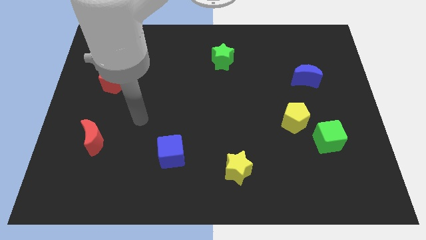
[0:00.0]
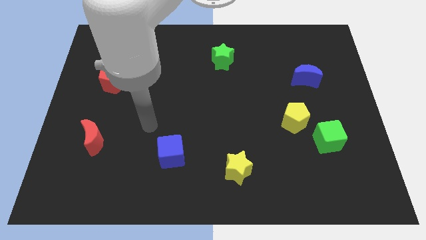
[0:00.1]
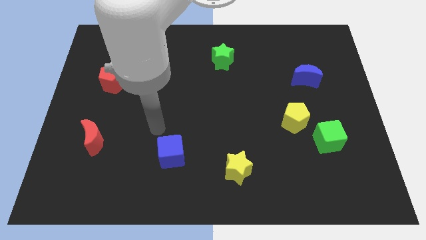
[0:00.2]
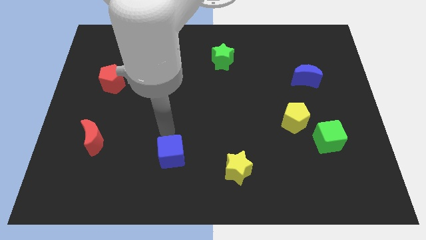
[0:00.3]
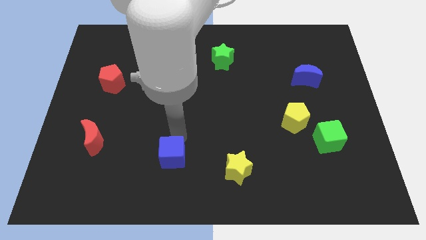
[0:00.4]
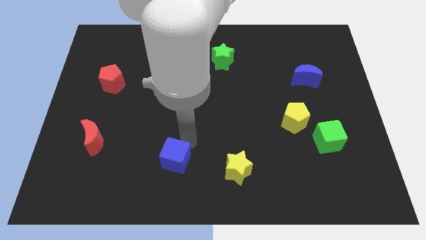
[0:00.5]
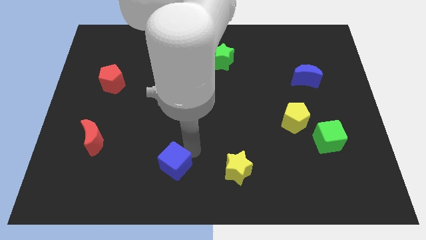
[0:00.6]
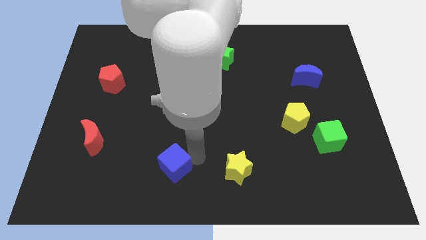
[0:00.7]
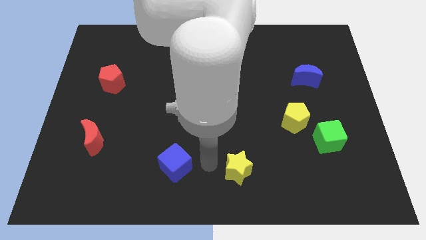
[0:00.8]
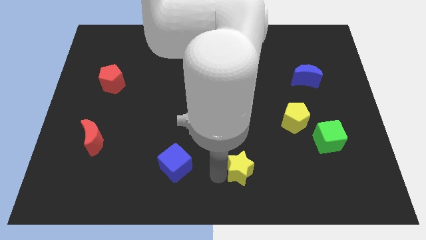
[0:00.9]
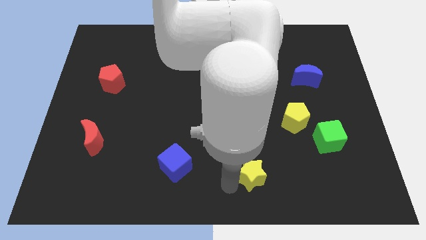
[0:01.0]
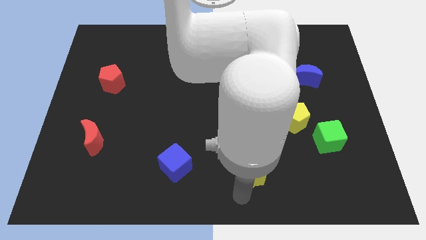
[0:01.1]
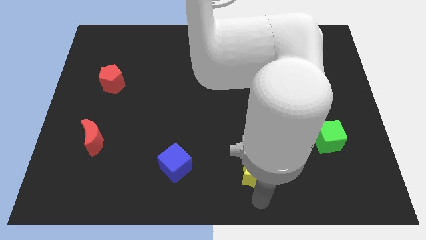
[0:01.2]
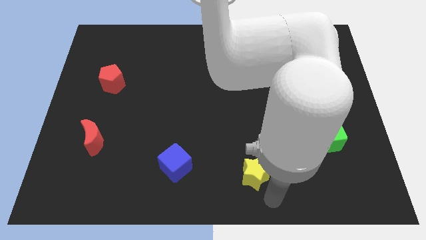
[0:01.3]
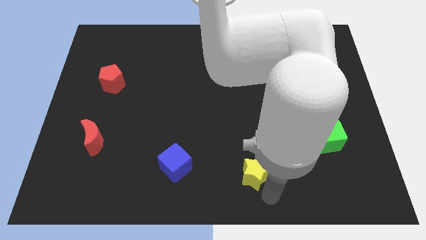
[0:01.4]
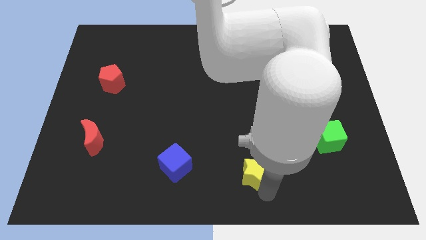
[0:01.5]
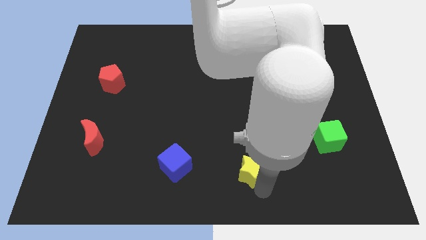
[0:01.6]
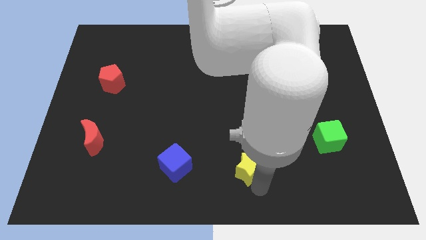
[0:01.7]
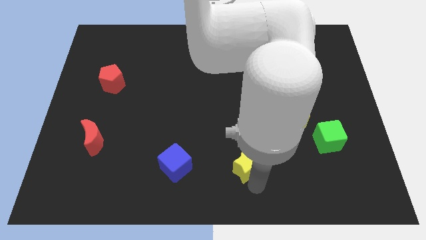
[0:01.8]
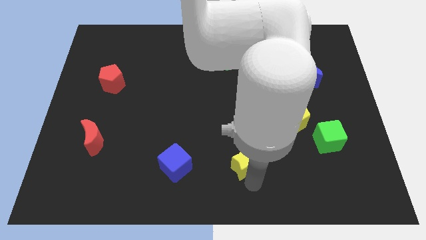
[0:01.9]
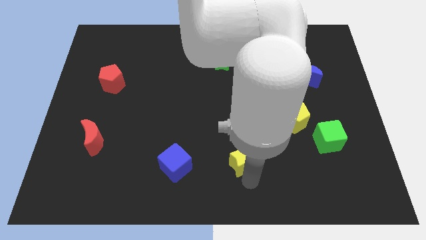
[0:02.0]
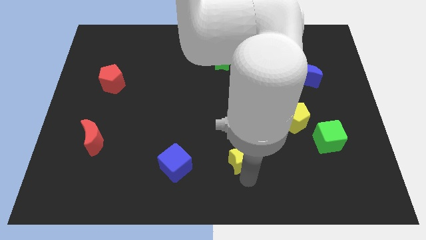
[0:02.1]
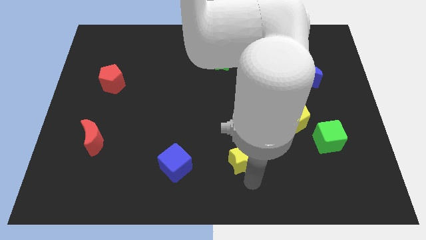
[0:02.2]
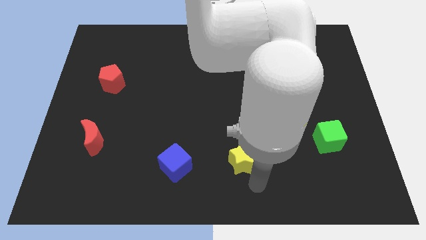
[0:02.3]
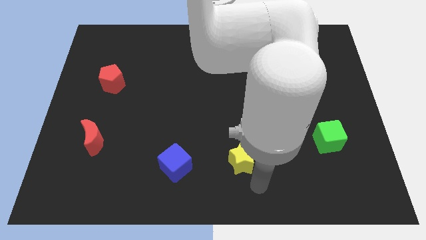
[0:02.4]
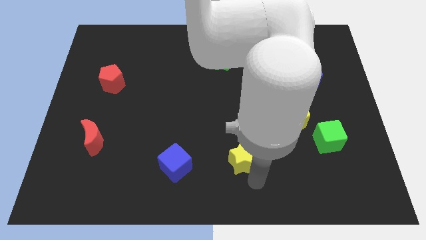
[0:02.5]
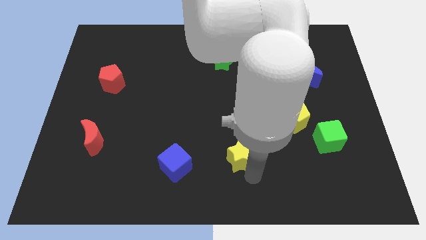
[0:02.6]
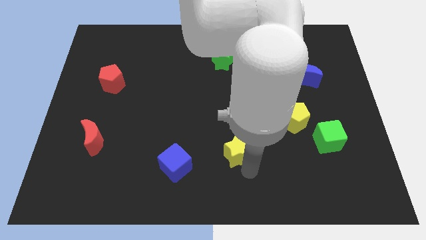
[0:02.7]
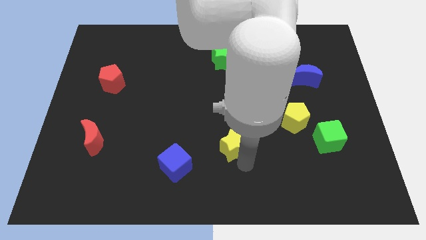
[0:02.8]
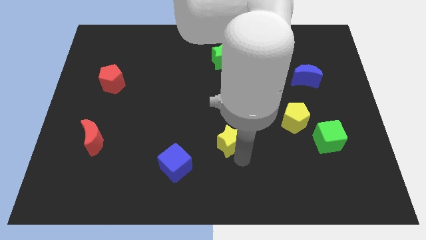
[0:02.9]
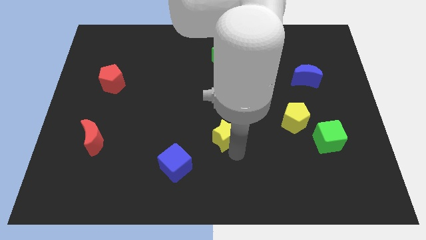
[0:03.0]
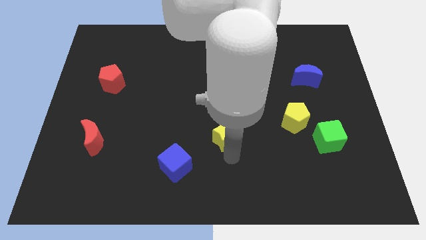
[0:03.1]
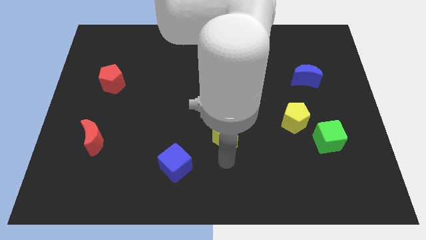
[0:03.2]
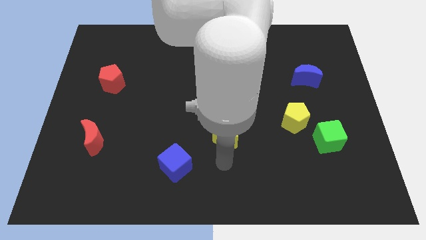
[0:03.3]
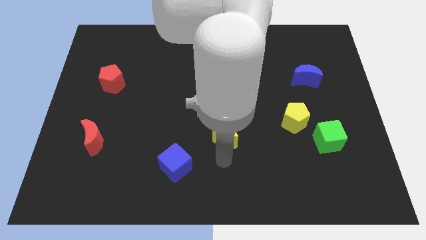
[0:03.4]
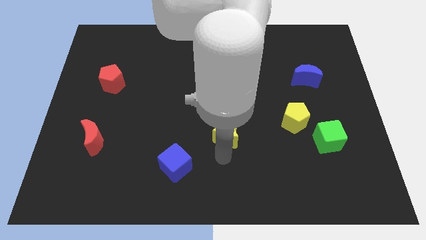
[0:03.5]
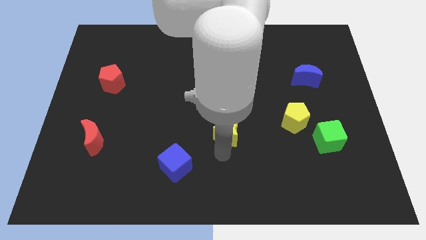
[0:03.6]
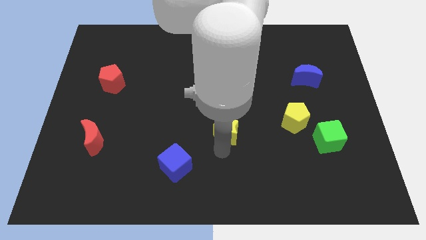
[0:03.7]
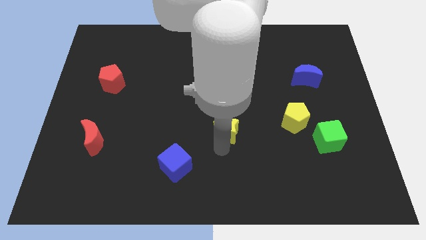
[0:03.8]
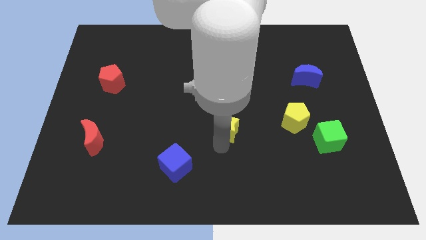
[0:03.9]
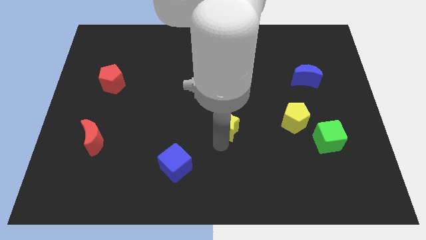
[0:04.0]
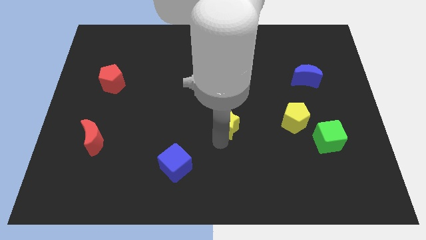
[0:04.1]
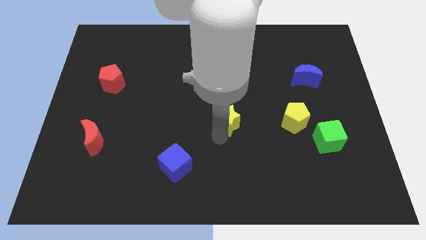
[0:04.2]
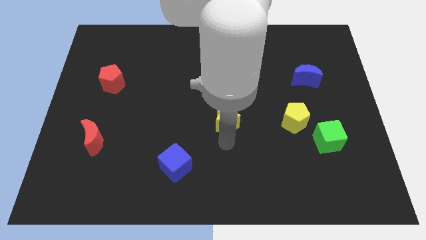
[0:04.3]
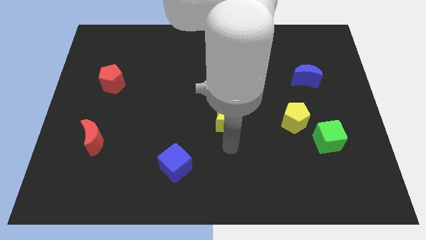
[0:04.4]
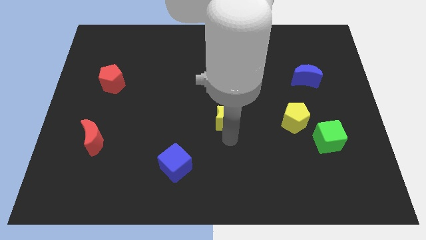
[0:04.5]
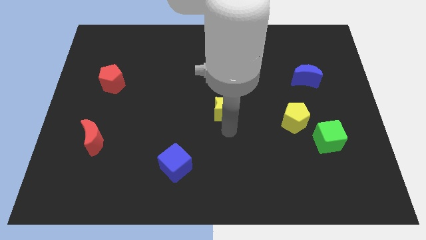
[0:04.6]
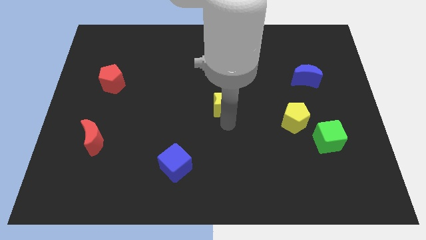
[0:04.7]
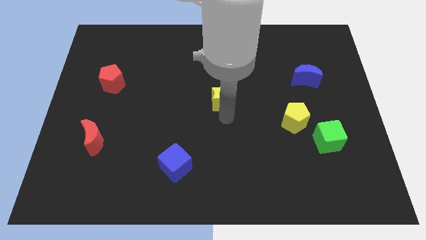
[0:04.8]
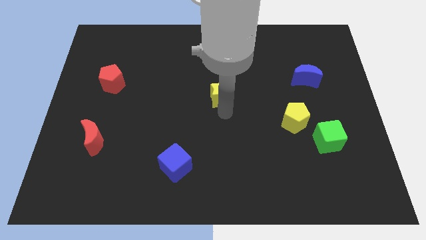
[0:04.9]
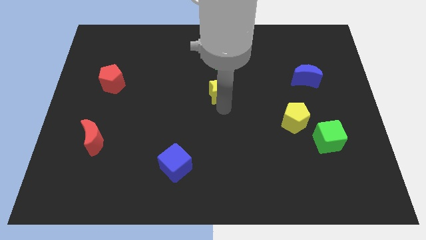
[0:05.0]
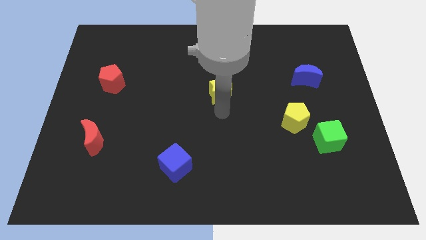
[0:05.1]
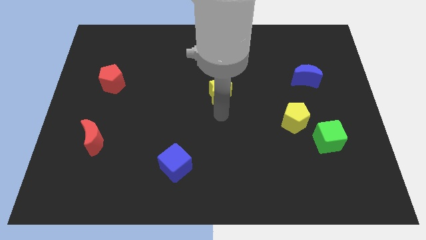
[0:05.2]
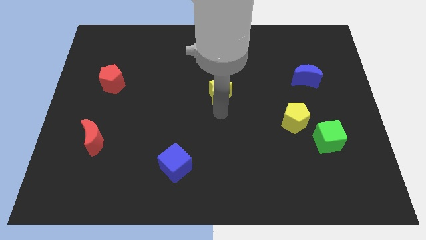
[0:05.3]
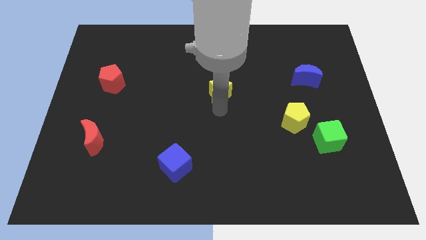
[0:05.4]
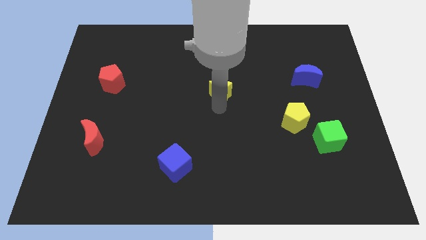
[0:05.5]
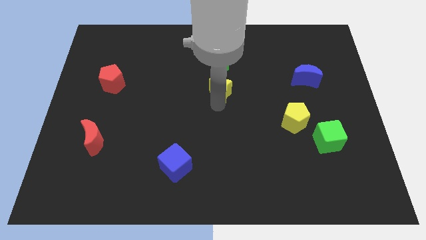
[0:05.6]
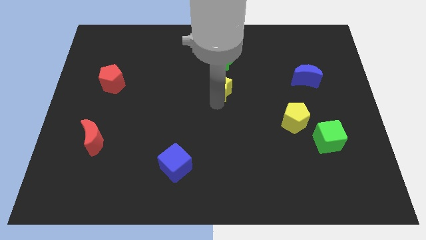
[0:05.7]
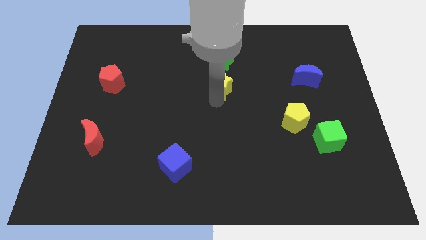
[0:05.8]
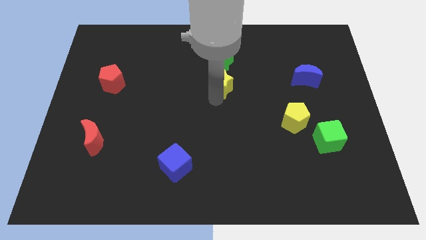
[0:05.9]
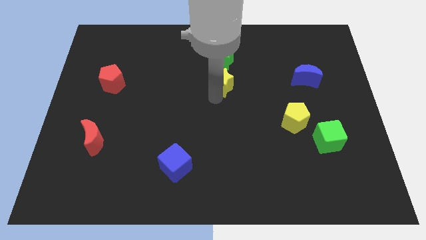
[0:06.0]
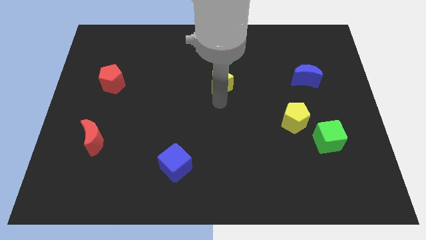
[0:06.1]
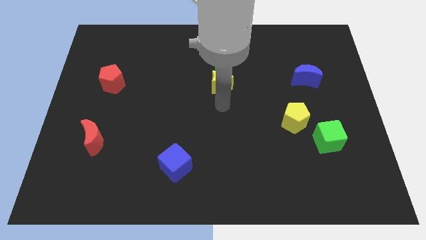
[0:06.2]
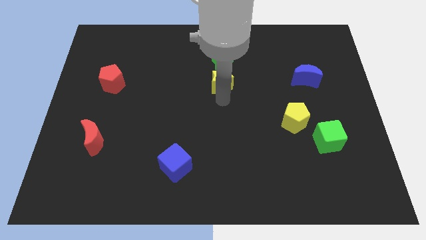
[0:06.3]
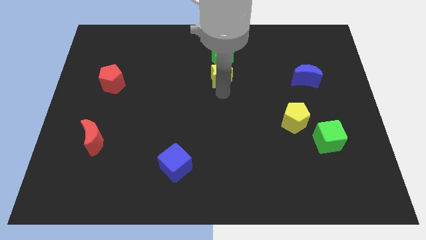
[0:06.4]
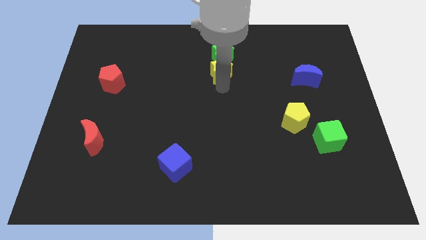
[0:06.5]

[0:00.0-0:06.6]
push the yellow star close to the green star
